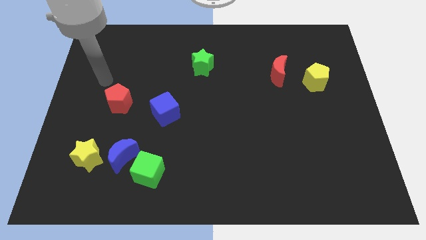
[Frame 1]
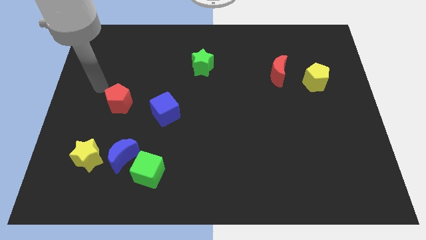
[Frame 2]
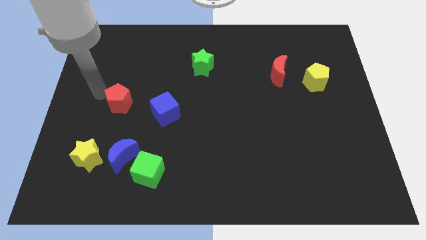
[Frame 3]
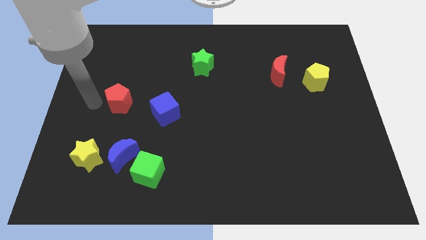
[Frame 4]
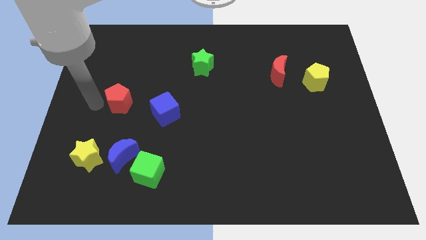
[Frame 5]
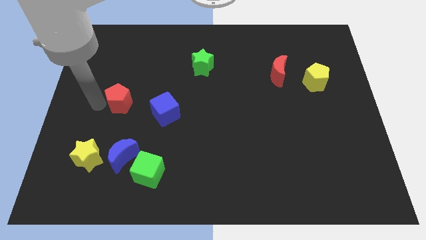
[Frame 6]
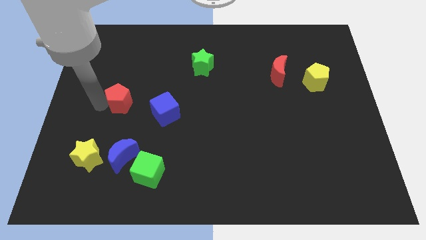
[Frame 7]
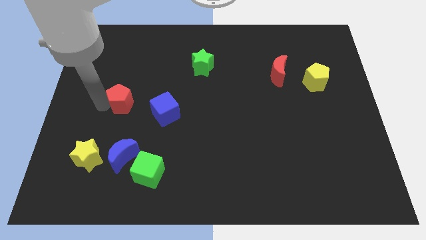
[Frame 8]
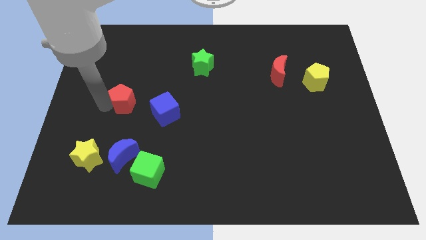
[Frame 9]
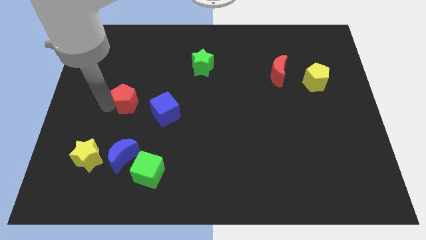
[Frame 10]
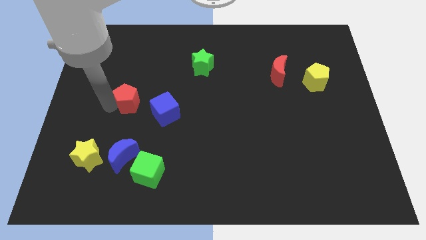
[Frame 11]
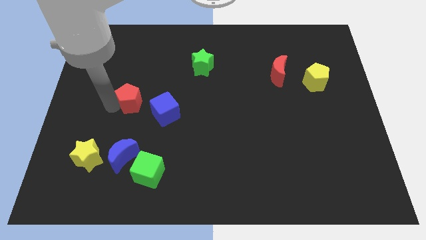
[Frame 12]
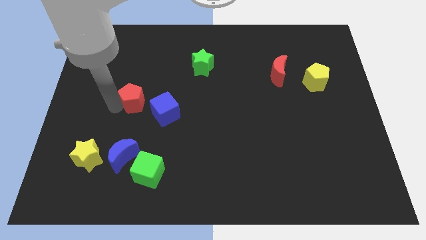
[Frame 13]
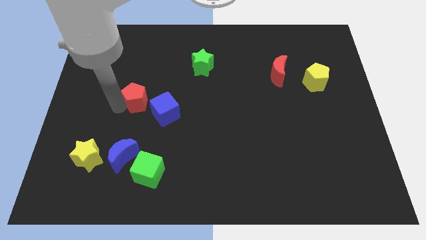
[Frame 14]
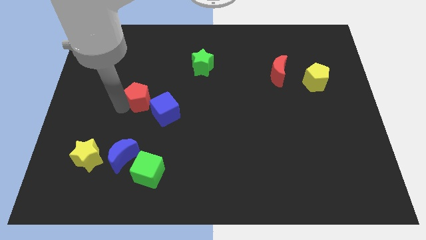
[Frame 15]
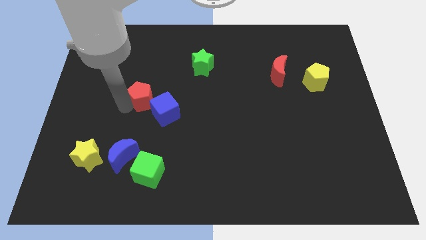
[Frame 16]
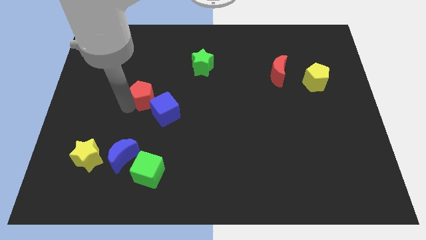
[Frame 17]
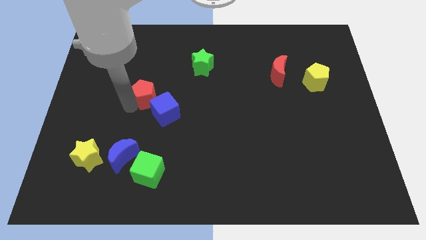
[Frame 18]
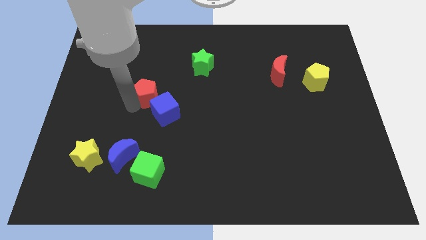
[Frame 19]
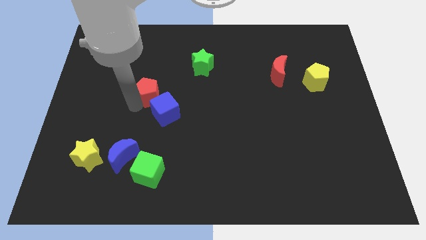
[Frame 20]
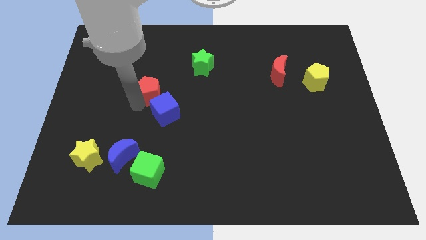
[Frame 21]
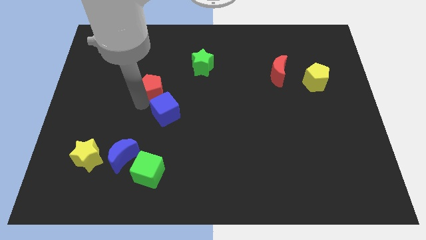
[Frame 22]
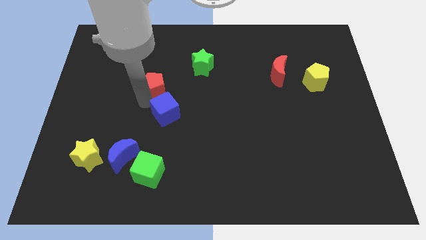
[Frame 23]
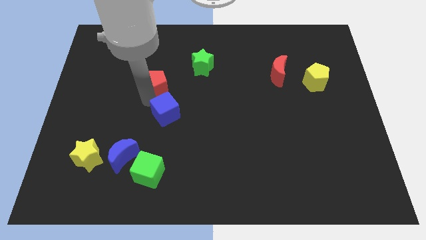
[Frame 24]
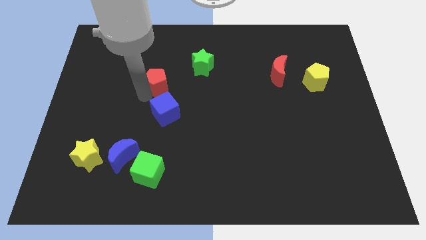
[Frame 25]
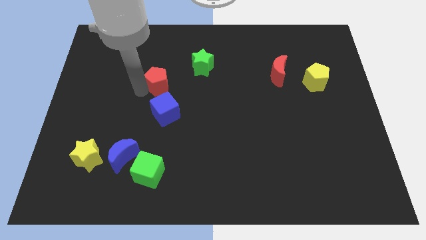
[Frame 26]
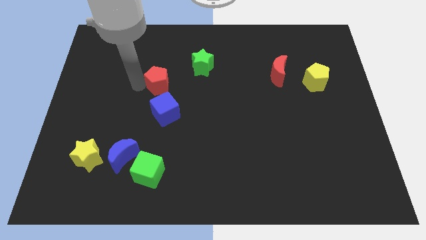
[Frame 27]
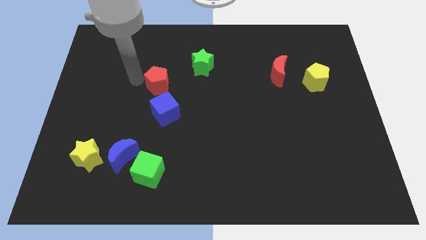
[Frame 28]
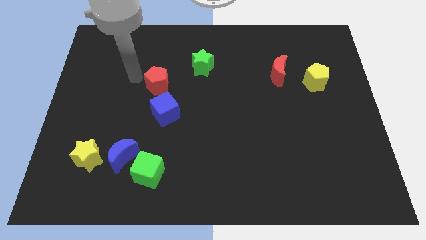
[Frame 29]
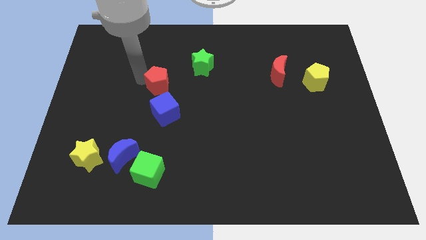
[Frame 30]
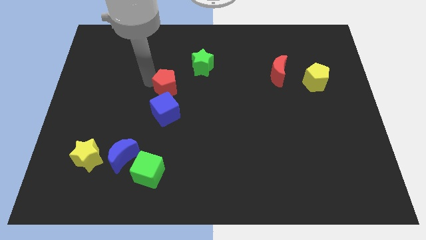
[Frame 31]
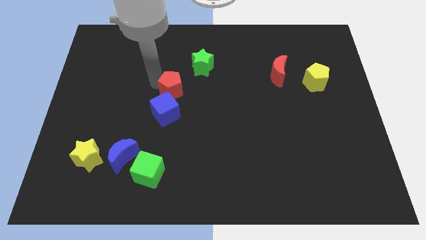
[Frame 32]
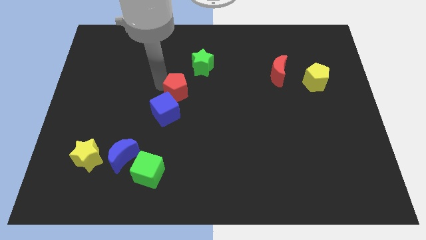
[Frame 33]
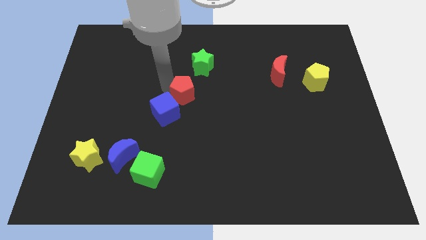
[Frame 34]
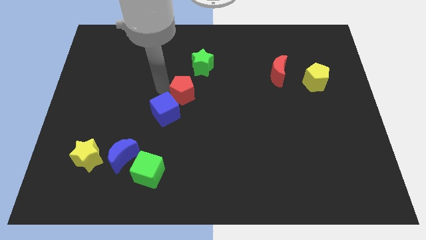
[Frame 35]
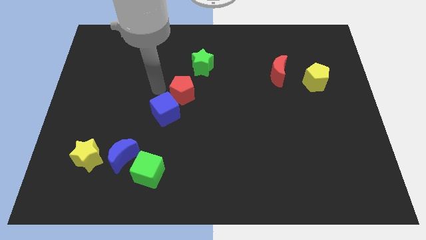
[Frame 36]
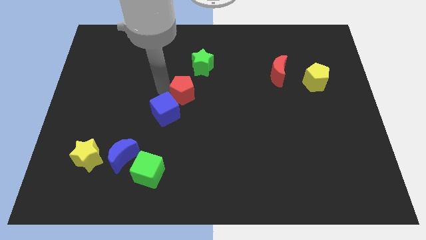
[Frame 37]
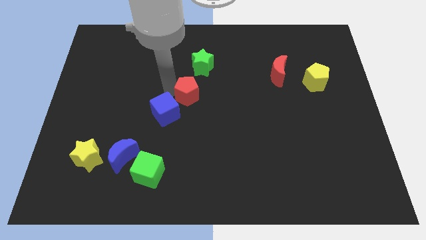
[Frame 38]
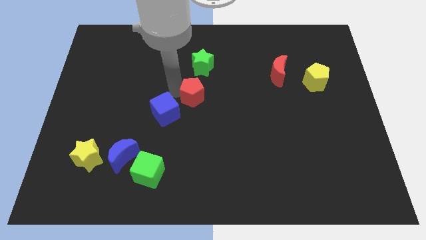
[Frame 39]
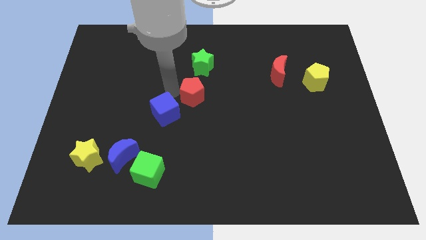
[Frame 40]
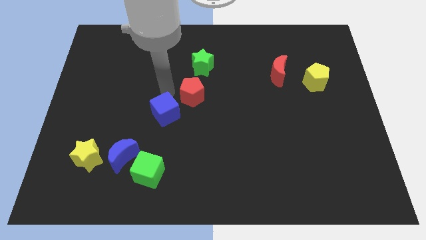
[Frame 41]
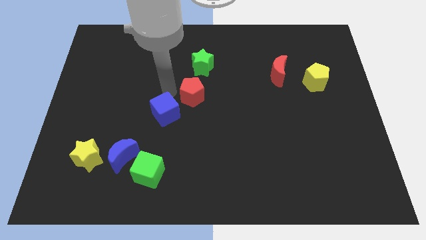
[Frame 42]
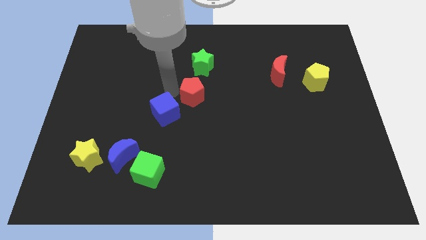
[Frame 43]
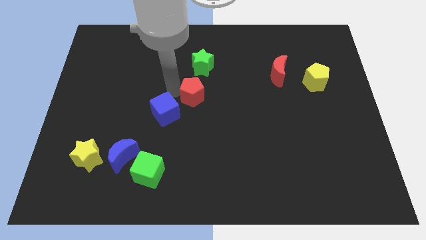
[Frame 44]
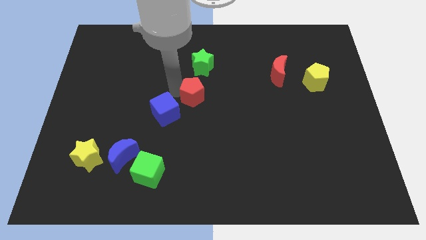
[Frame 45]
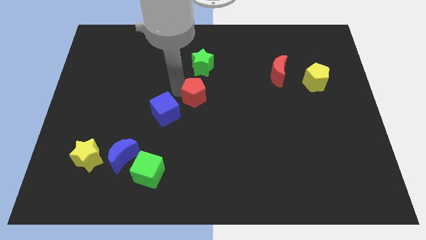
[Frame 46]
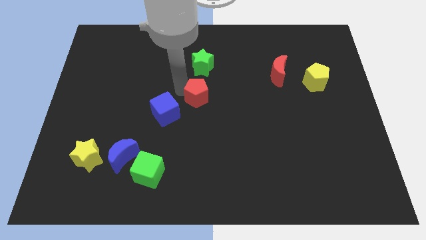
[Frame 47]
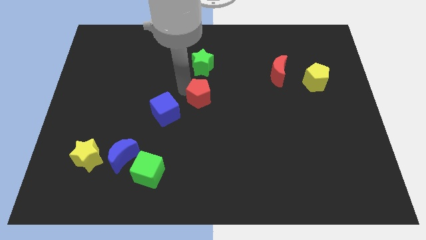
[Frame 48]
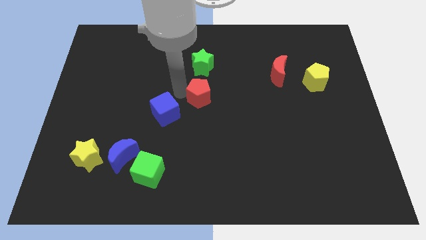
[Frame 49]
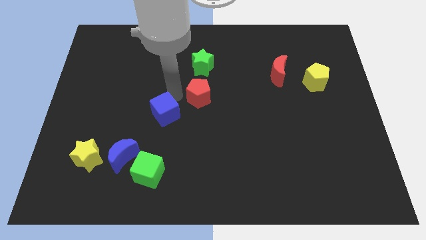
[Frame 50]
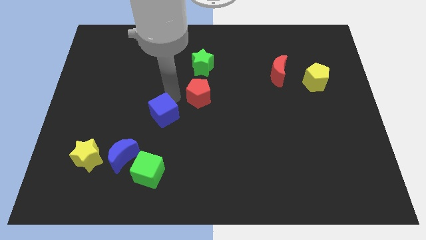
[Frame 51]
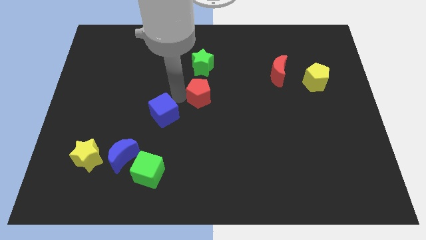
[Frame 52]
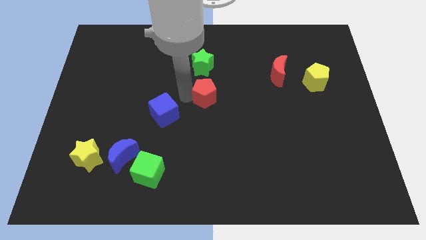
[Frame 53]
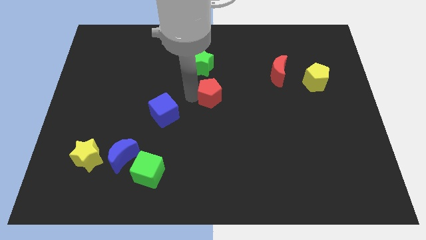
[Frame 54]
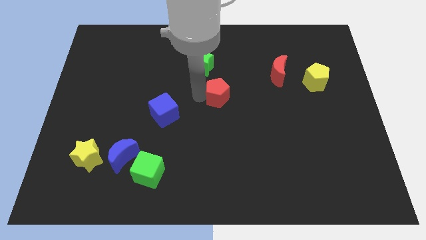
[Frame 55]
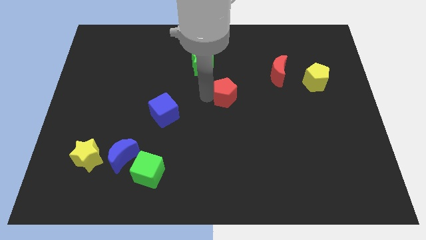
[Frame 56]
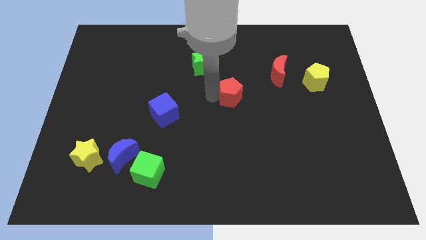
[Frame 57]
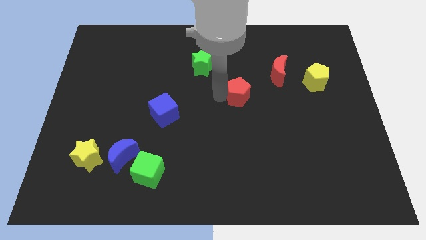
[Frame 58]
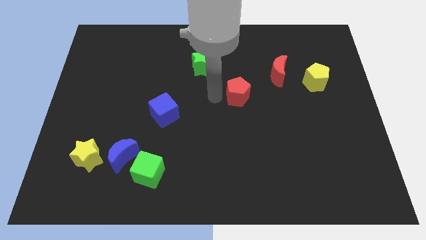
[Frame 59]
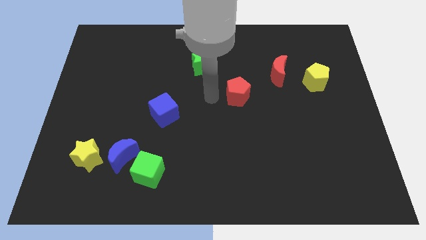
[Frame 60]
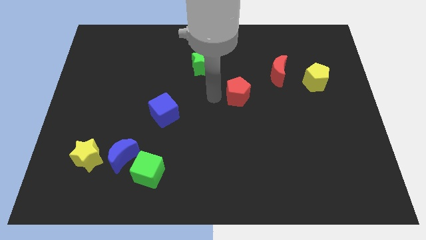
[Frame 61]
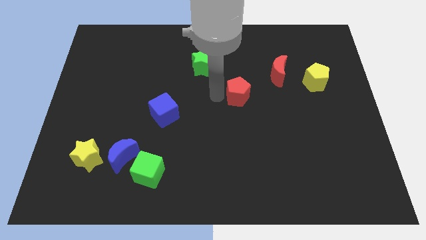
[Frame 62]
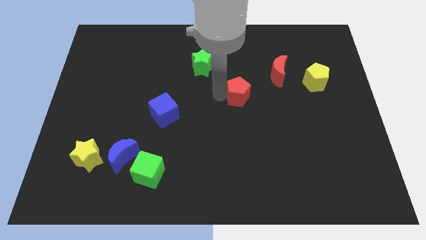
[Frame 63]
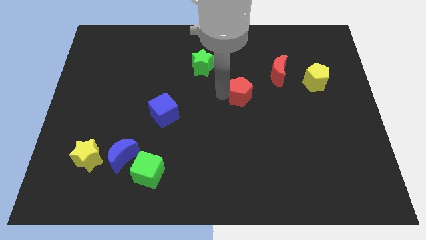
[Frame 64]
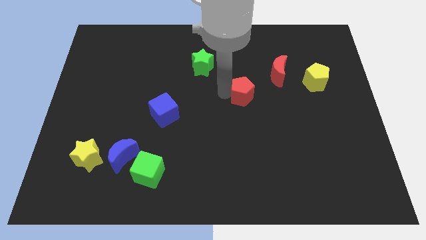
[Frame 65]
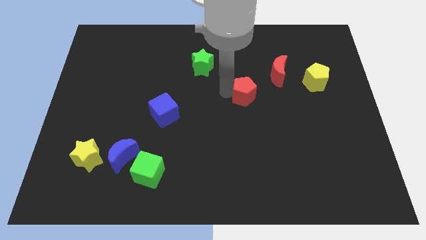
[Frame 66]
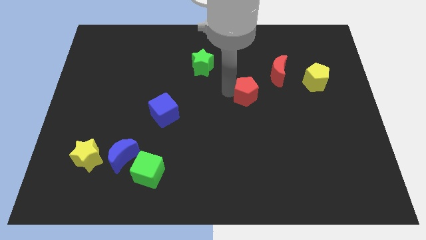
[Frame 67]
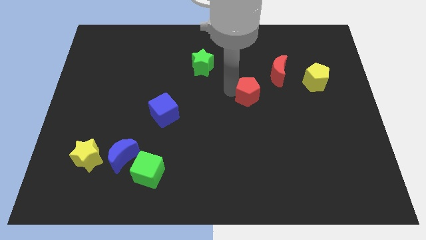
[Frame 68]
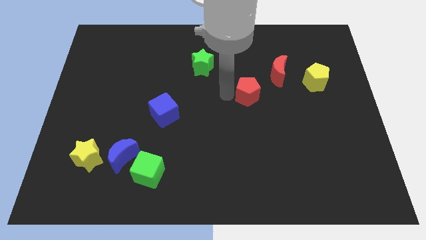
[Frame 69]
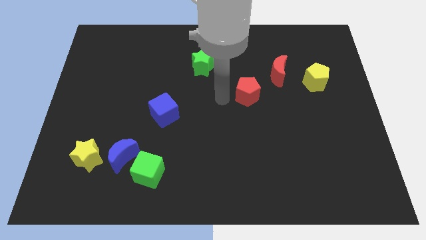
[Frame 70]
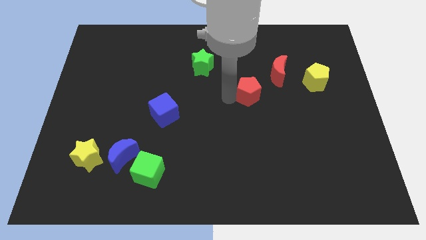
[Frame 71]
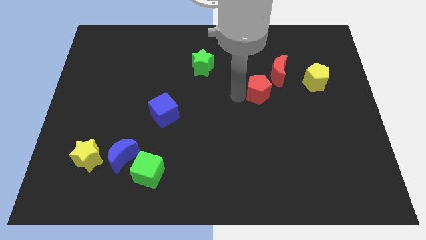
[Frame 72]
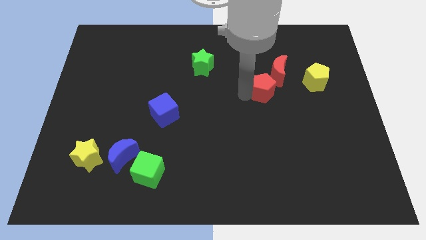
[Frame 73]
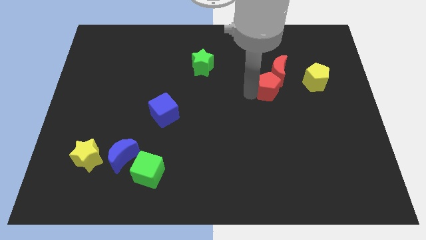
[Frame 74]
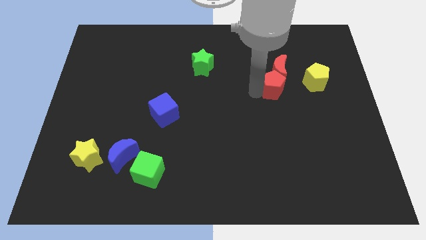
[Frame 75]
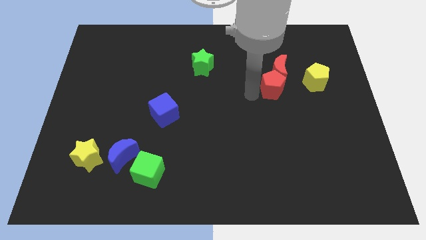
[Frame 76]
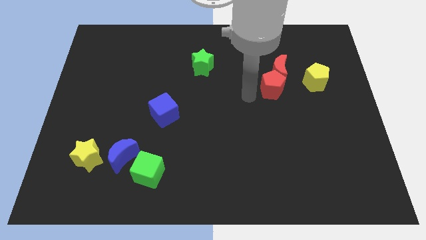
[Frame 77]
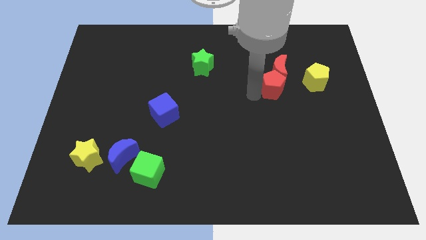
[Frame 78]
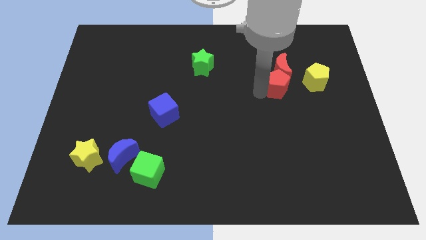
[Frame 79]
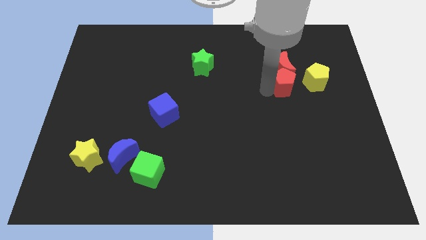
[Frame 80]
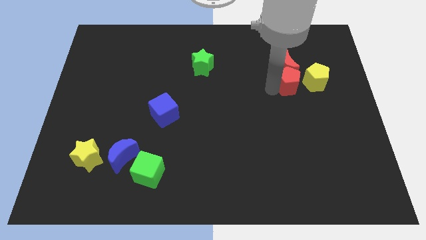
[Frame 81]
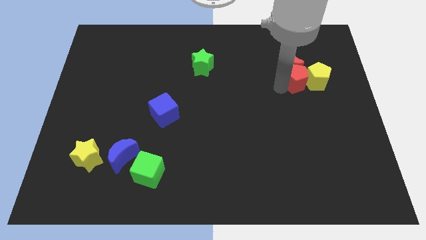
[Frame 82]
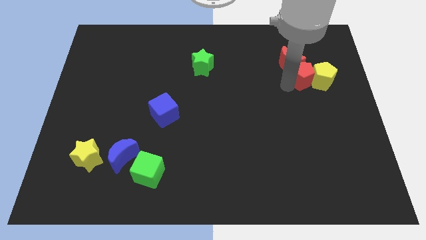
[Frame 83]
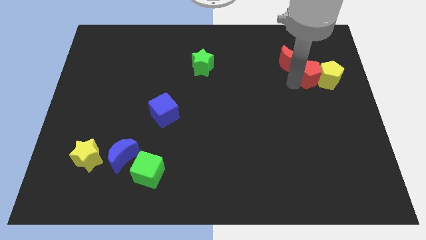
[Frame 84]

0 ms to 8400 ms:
slide the red pentagon right of the red moon

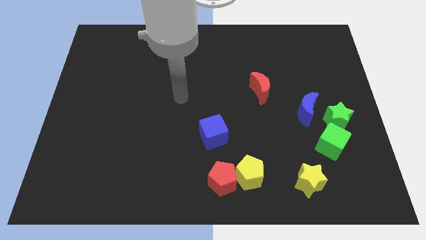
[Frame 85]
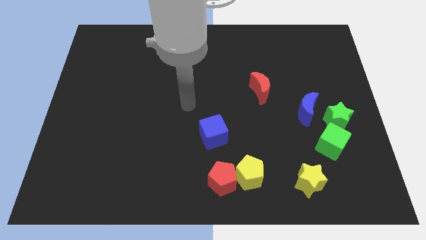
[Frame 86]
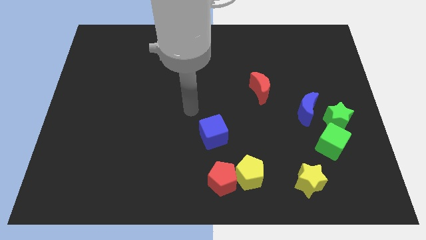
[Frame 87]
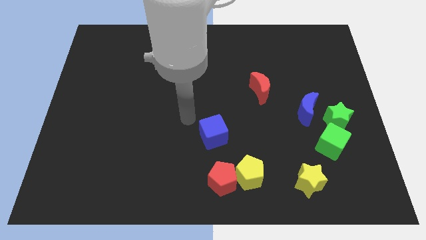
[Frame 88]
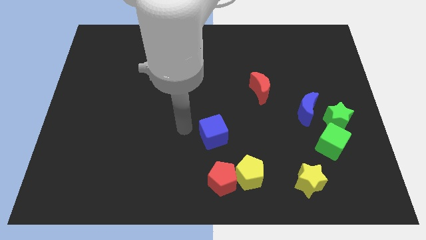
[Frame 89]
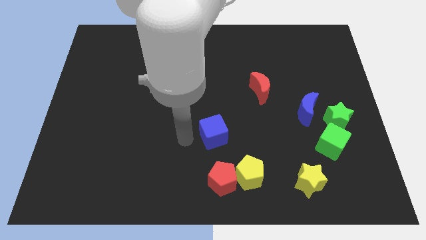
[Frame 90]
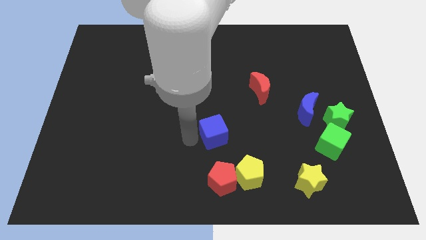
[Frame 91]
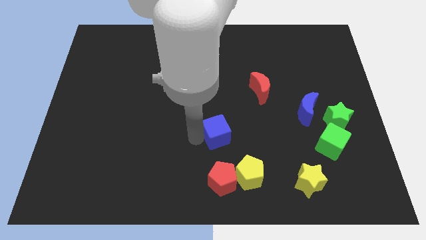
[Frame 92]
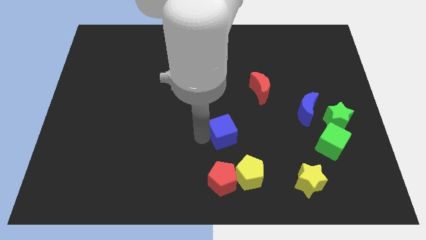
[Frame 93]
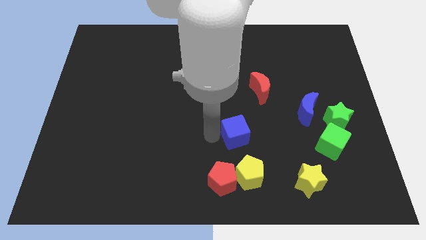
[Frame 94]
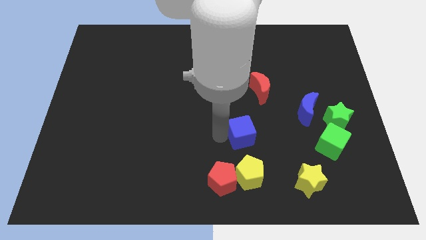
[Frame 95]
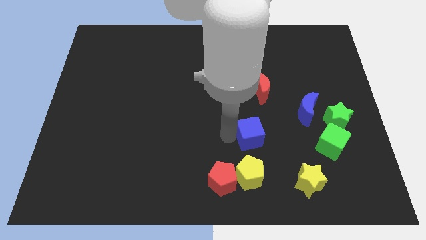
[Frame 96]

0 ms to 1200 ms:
move the blue cube to the bottom side of the red moon
